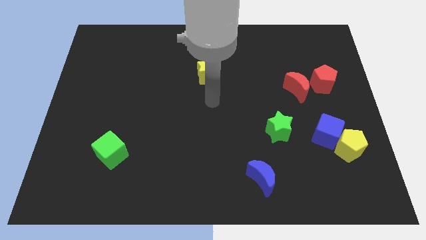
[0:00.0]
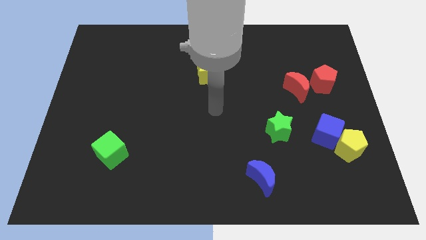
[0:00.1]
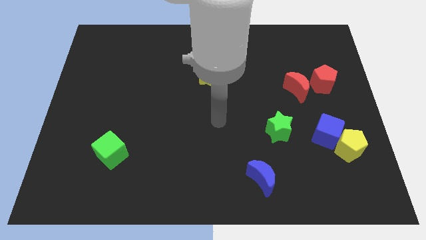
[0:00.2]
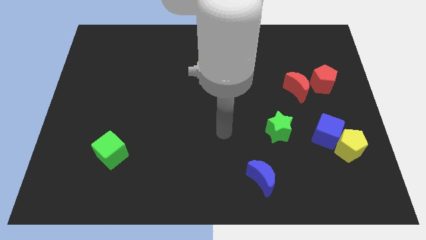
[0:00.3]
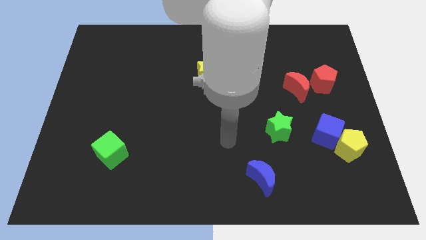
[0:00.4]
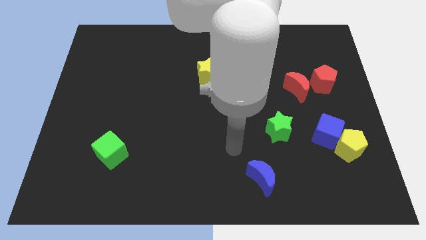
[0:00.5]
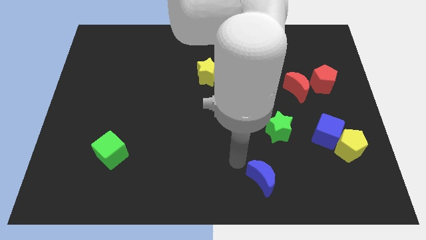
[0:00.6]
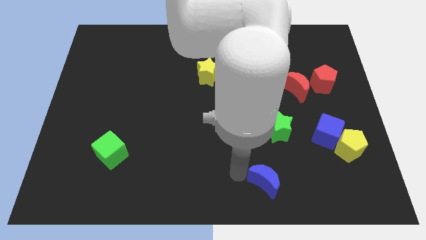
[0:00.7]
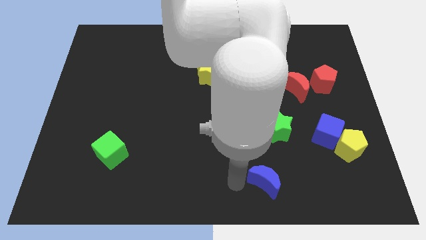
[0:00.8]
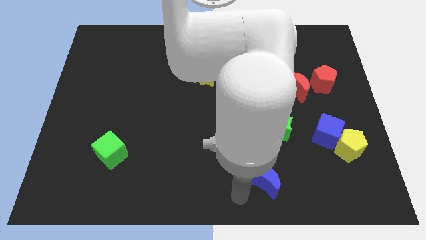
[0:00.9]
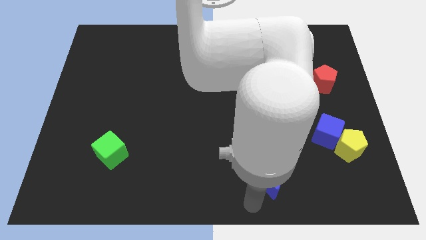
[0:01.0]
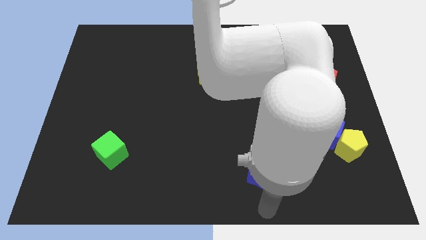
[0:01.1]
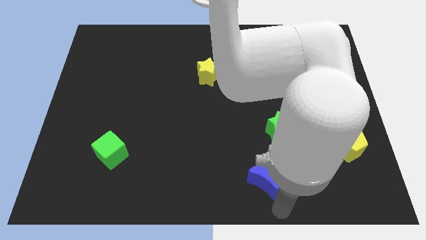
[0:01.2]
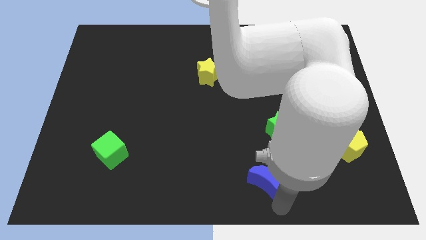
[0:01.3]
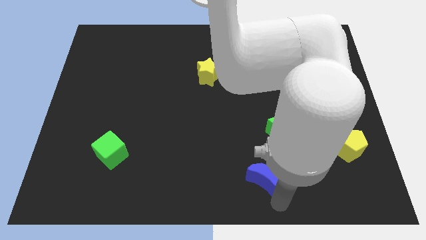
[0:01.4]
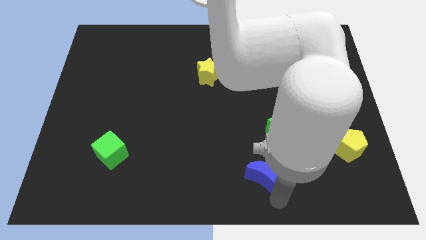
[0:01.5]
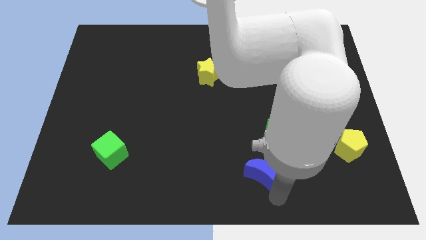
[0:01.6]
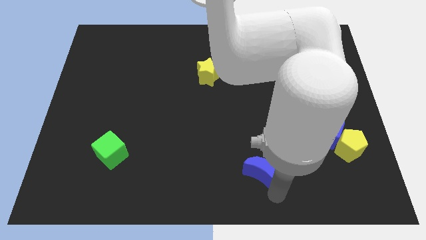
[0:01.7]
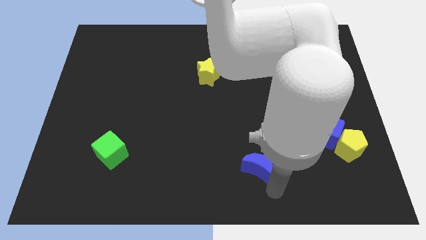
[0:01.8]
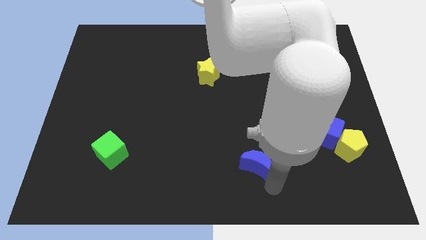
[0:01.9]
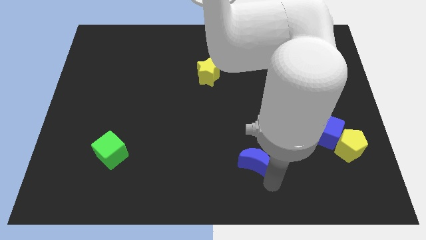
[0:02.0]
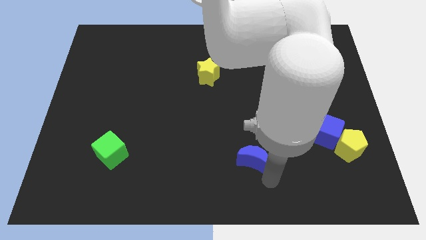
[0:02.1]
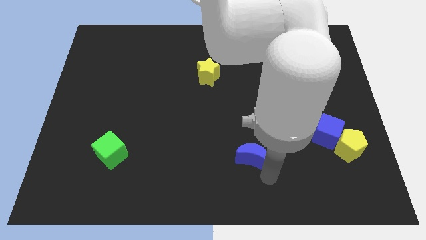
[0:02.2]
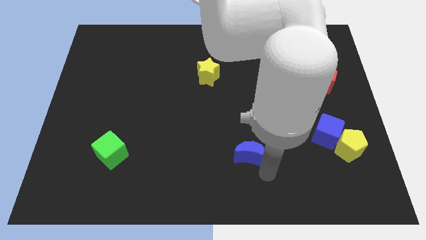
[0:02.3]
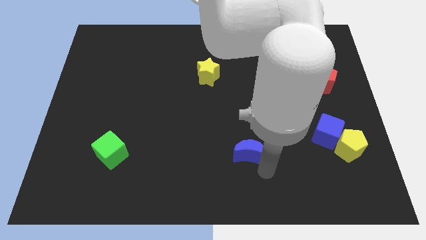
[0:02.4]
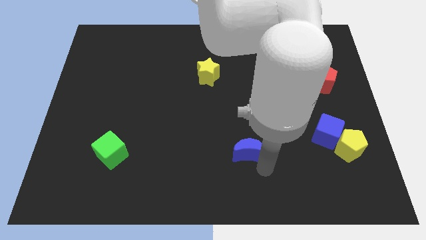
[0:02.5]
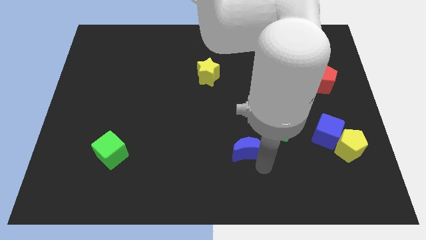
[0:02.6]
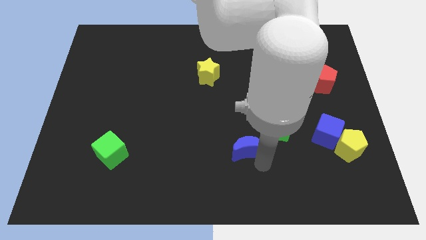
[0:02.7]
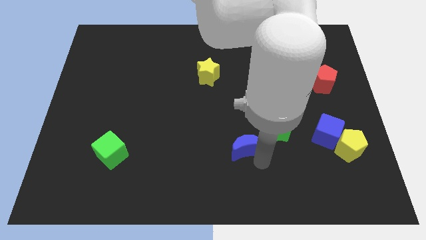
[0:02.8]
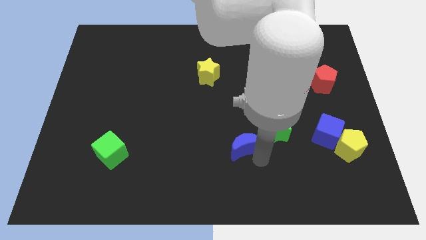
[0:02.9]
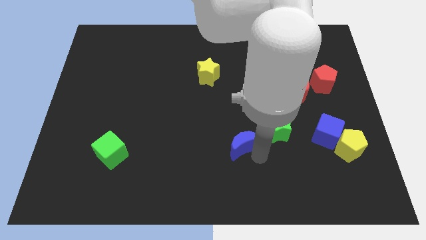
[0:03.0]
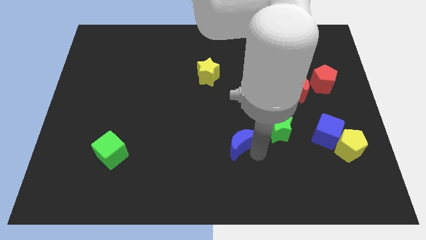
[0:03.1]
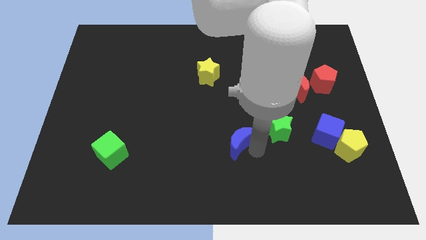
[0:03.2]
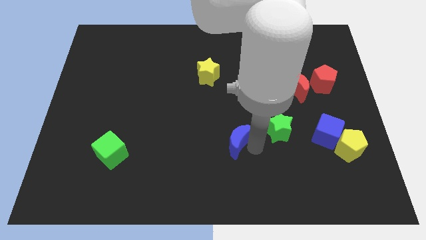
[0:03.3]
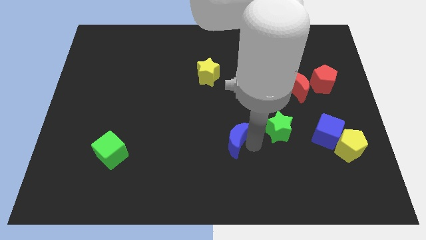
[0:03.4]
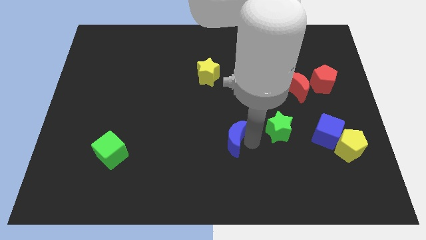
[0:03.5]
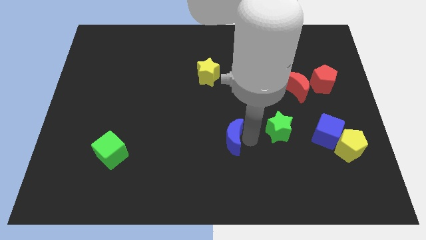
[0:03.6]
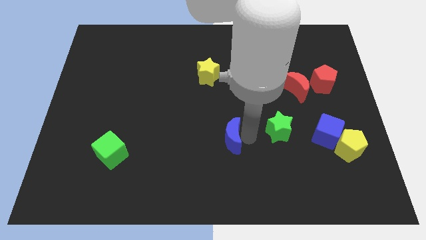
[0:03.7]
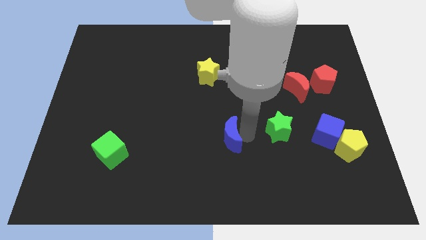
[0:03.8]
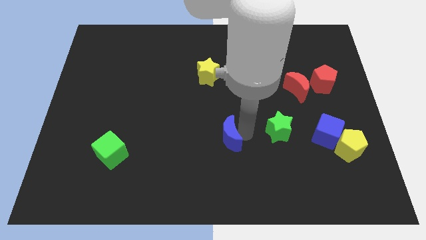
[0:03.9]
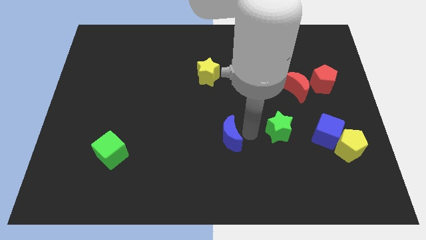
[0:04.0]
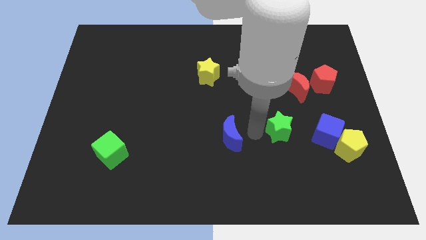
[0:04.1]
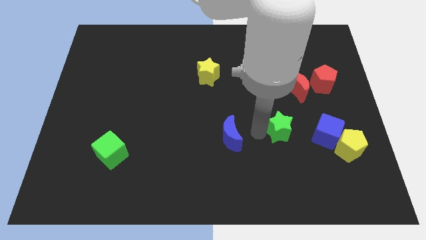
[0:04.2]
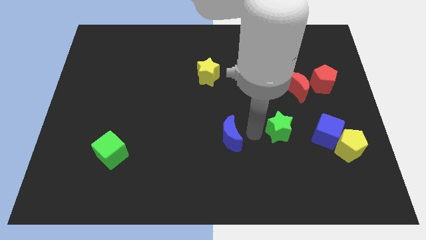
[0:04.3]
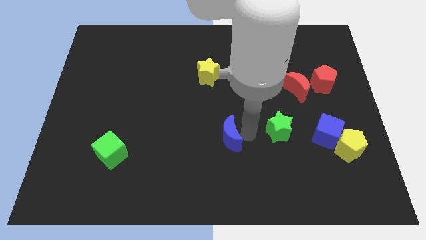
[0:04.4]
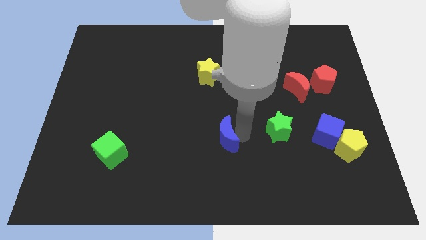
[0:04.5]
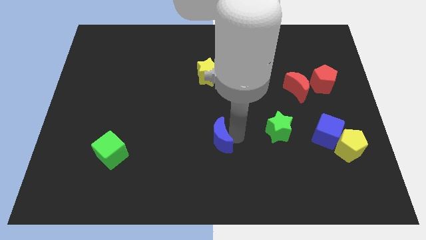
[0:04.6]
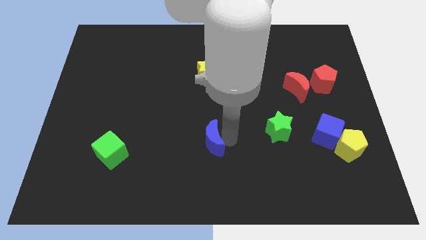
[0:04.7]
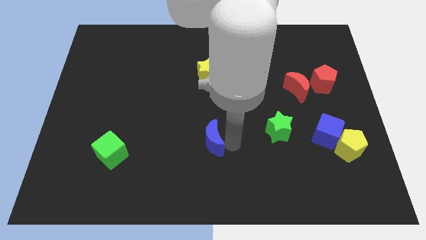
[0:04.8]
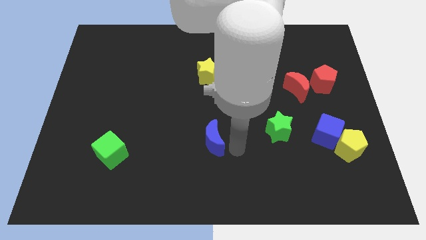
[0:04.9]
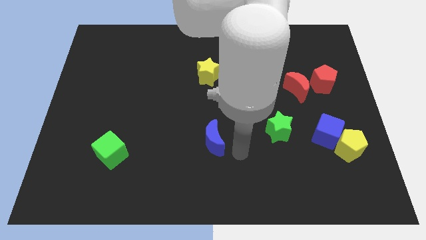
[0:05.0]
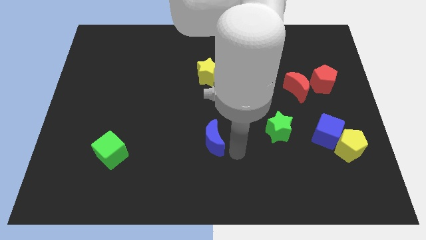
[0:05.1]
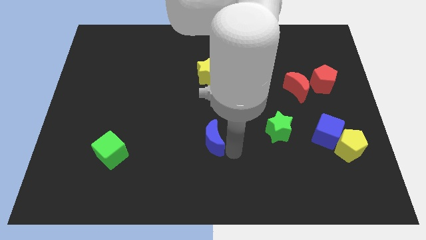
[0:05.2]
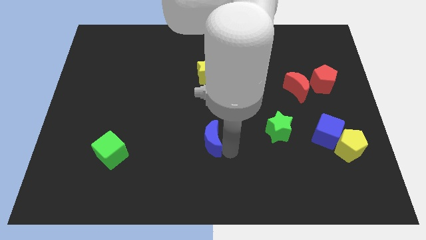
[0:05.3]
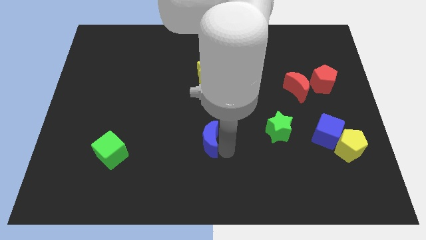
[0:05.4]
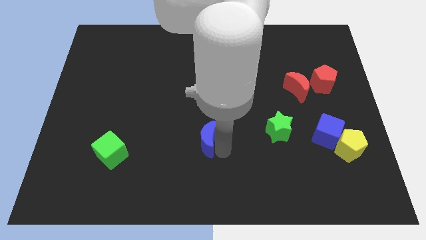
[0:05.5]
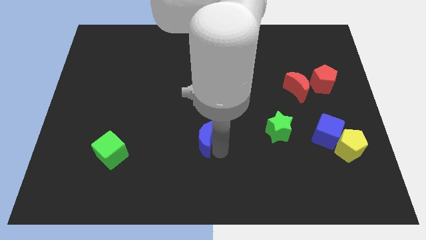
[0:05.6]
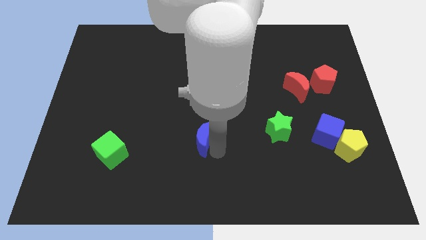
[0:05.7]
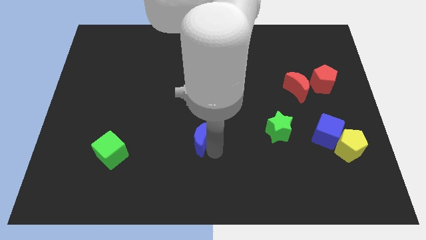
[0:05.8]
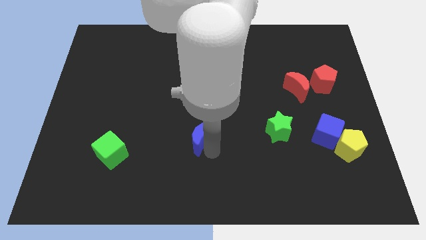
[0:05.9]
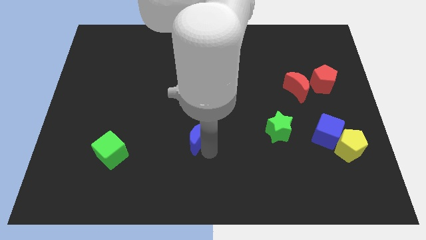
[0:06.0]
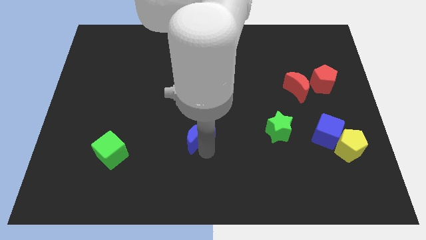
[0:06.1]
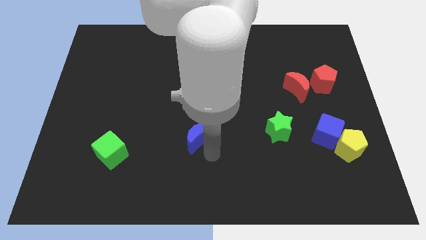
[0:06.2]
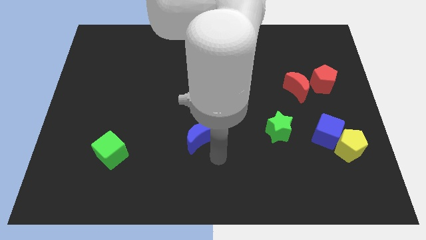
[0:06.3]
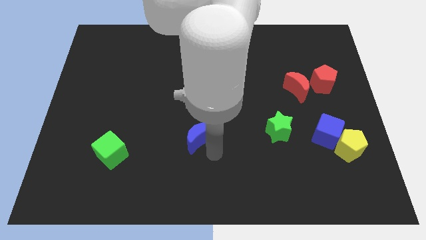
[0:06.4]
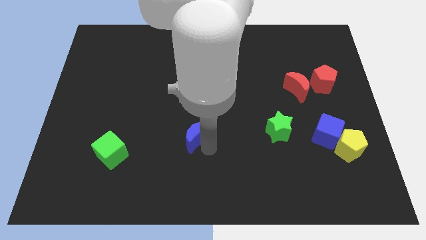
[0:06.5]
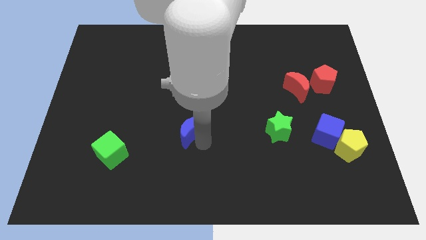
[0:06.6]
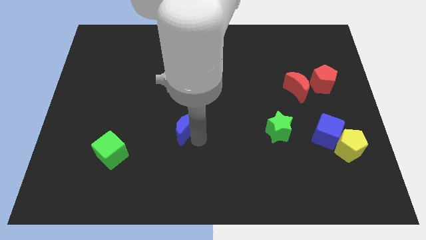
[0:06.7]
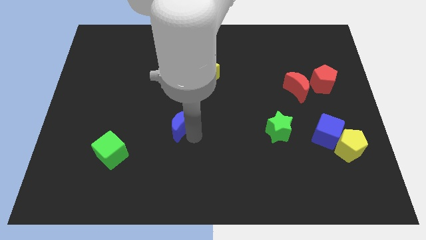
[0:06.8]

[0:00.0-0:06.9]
move the blue moon upwards and to the left diagonally

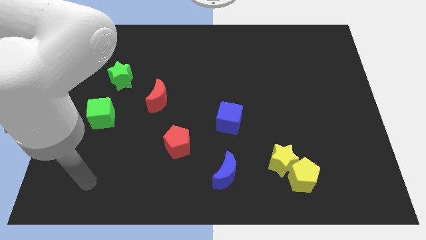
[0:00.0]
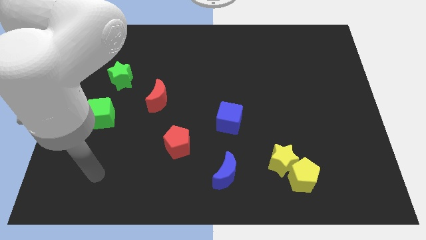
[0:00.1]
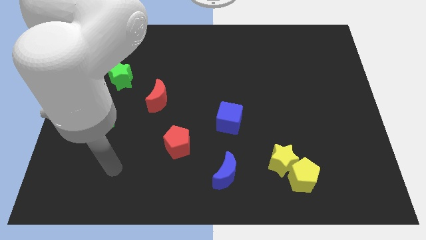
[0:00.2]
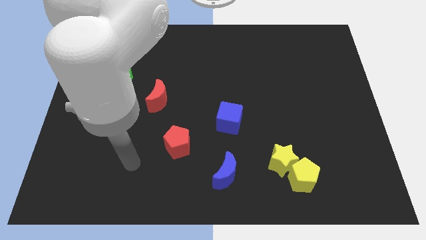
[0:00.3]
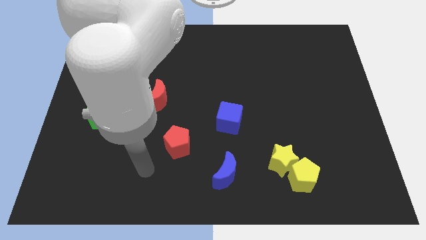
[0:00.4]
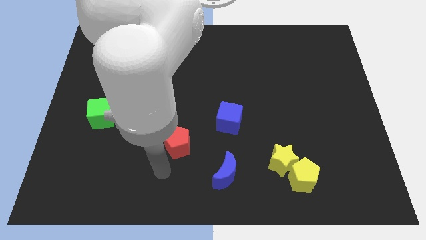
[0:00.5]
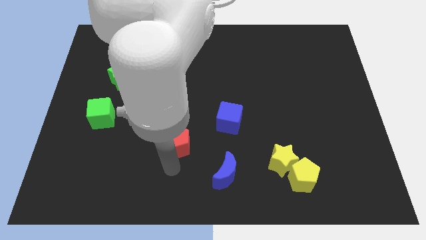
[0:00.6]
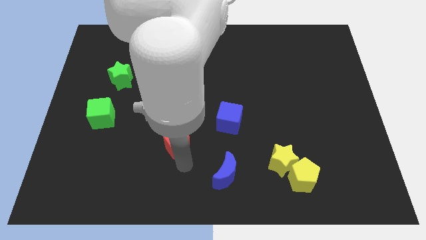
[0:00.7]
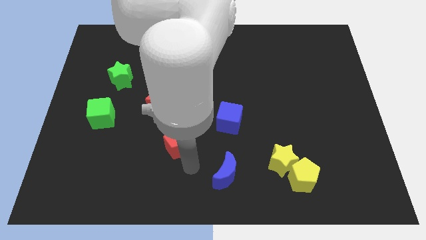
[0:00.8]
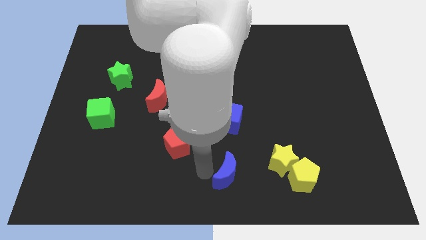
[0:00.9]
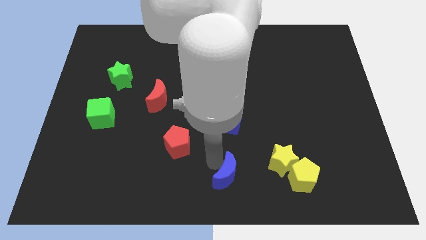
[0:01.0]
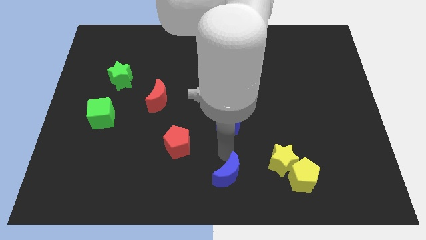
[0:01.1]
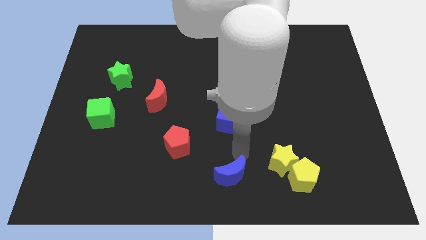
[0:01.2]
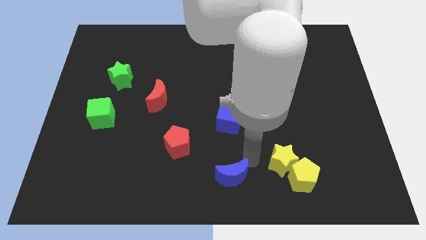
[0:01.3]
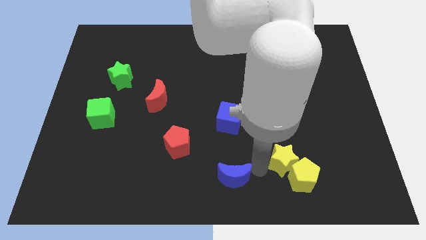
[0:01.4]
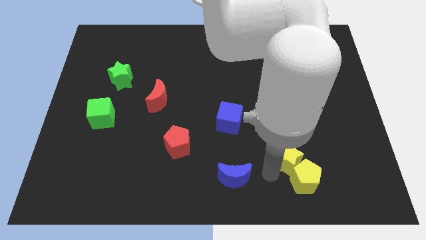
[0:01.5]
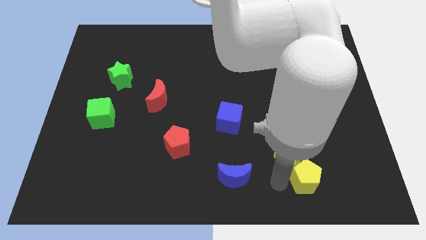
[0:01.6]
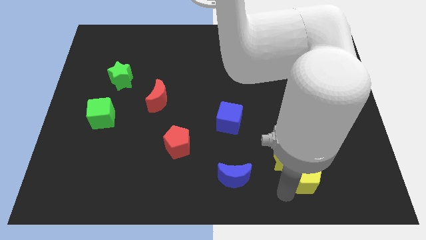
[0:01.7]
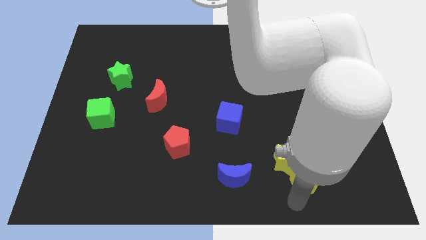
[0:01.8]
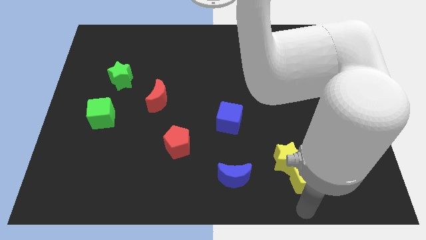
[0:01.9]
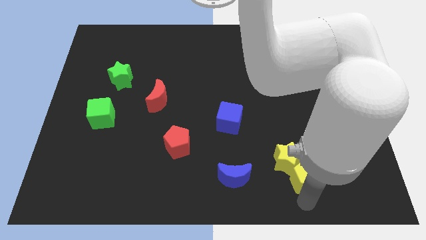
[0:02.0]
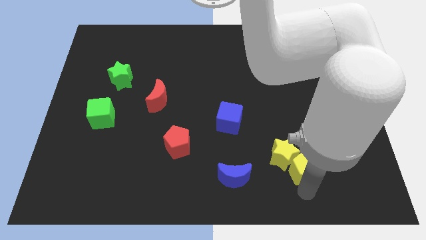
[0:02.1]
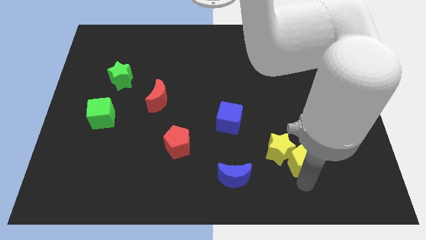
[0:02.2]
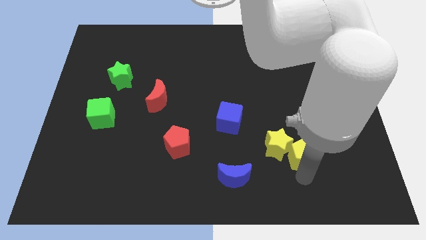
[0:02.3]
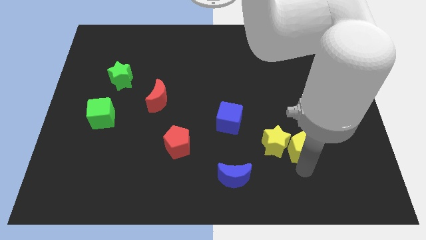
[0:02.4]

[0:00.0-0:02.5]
slide the yellow pentagon upwards somewhat
